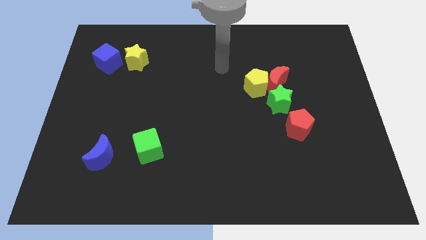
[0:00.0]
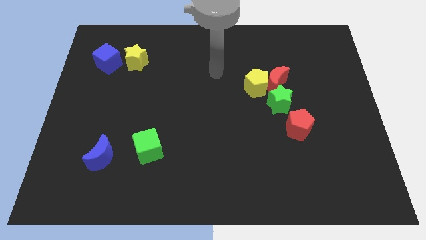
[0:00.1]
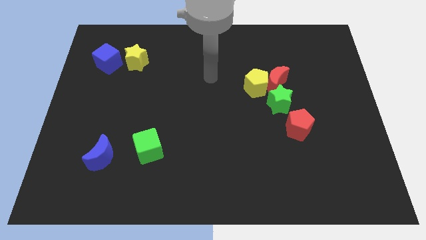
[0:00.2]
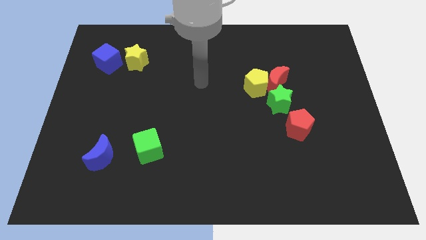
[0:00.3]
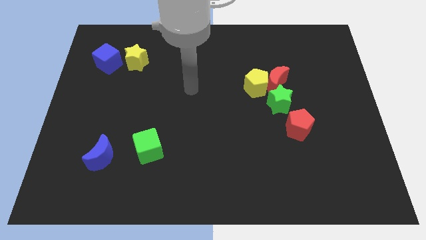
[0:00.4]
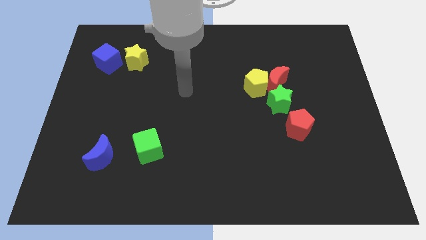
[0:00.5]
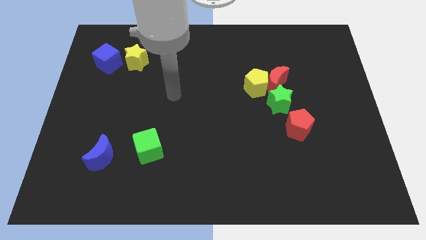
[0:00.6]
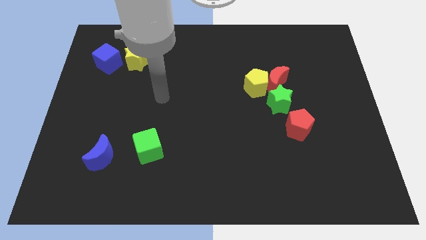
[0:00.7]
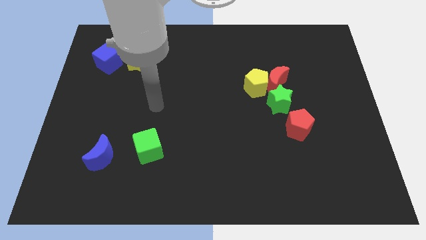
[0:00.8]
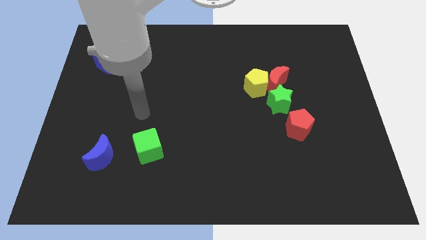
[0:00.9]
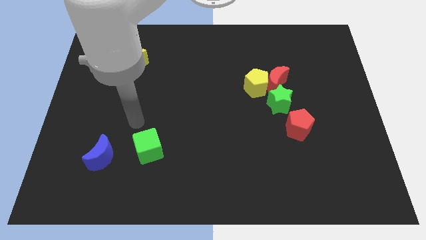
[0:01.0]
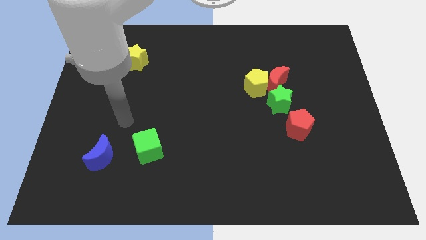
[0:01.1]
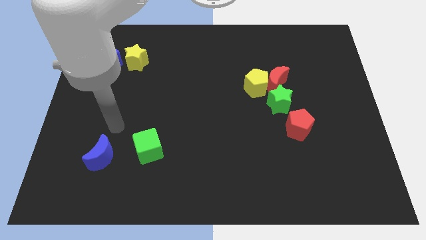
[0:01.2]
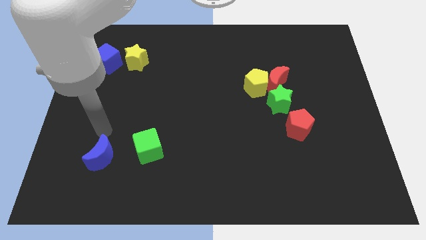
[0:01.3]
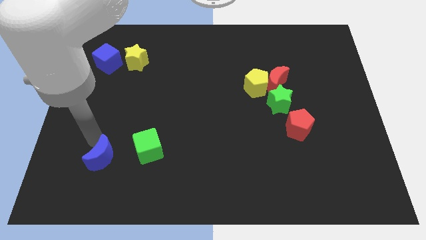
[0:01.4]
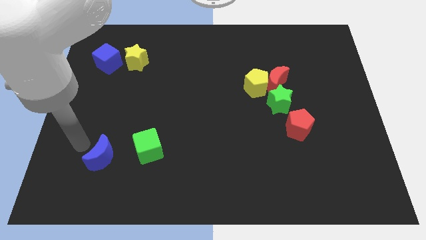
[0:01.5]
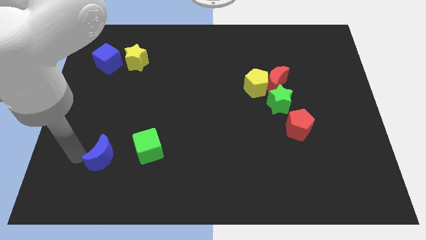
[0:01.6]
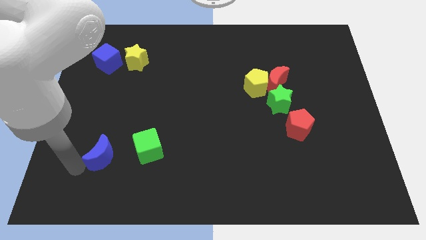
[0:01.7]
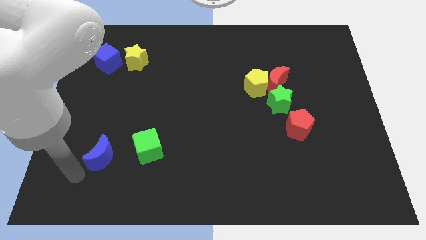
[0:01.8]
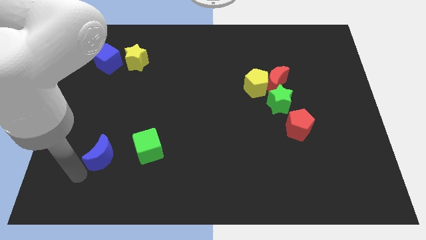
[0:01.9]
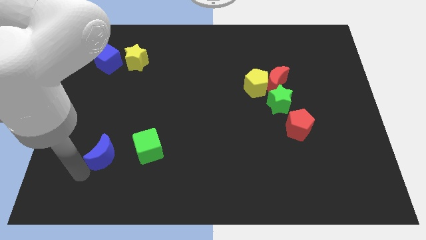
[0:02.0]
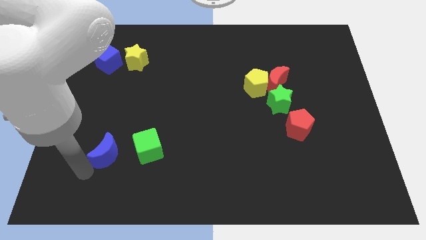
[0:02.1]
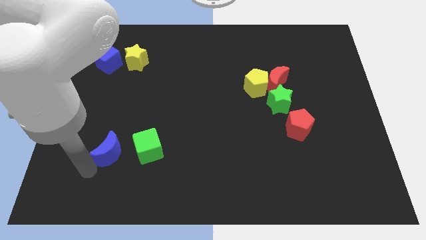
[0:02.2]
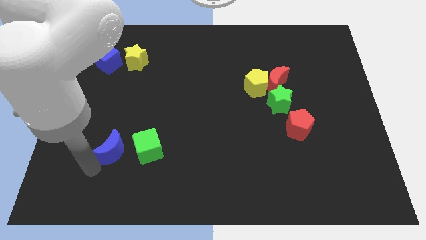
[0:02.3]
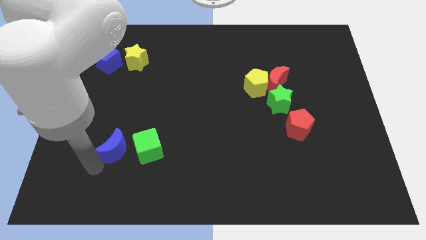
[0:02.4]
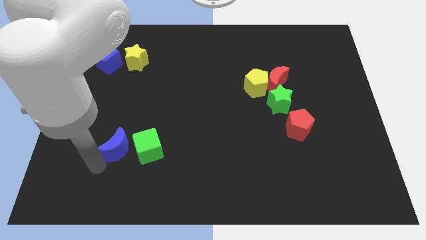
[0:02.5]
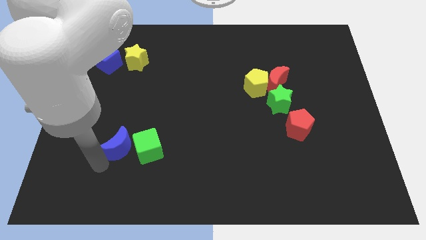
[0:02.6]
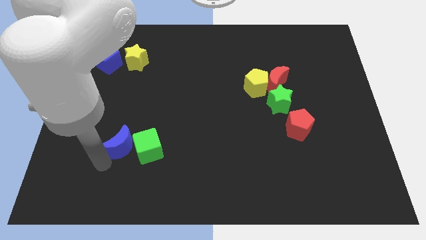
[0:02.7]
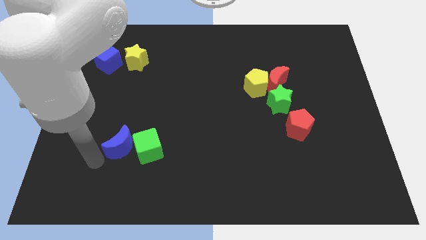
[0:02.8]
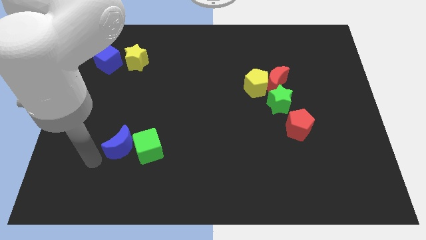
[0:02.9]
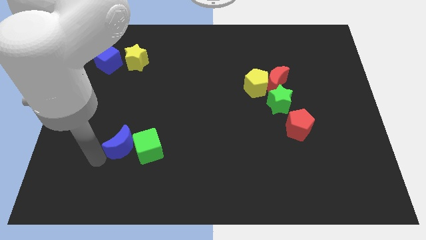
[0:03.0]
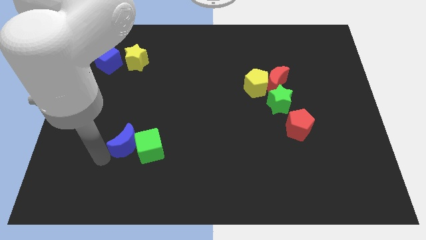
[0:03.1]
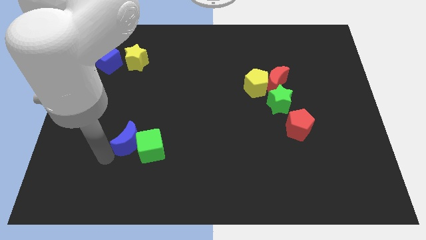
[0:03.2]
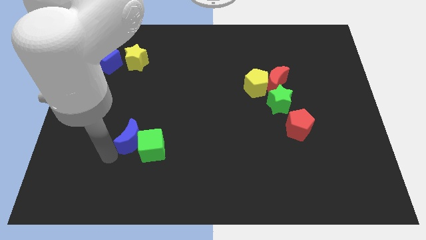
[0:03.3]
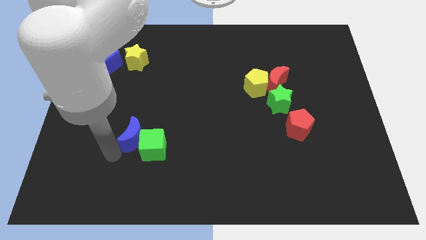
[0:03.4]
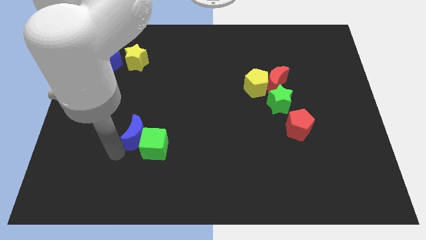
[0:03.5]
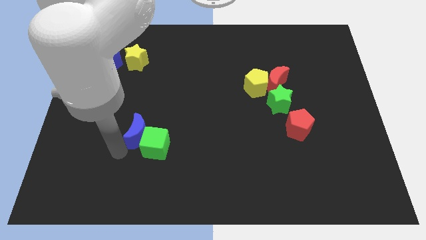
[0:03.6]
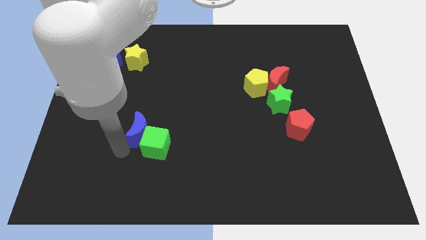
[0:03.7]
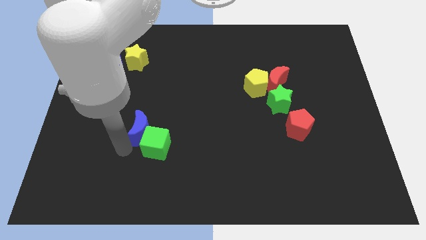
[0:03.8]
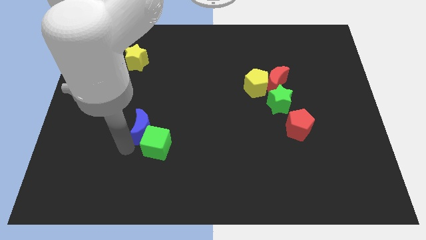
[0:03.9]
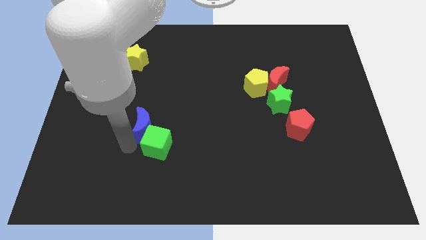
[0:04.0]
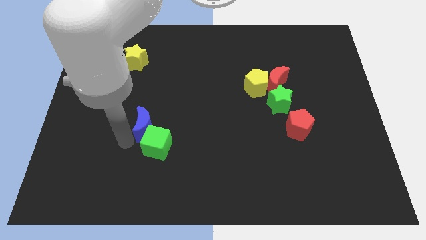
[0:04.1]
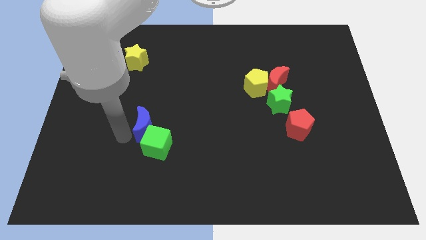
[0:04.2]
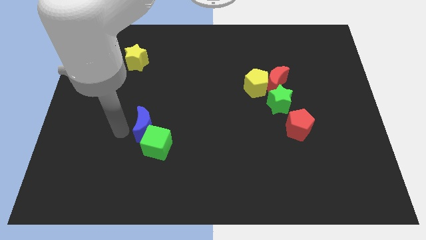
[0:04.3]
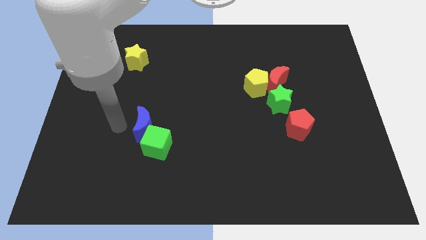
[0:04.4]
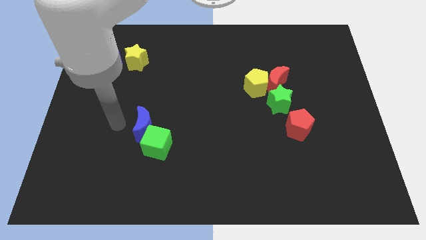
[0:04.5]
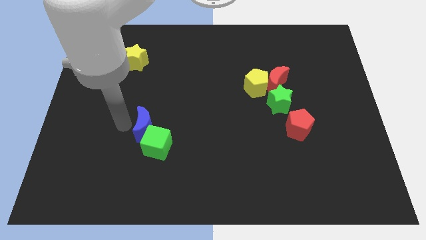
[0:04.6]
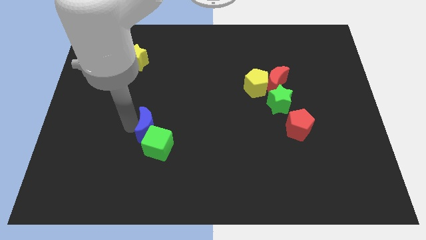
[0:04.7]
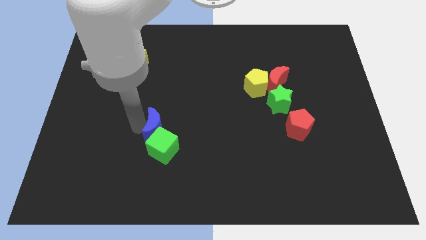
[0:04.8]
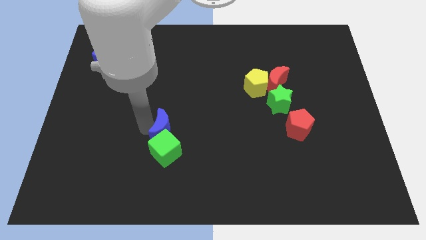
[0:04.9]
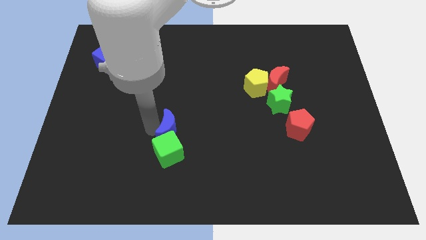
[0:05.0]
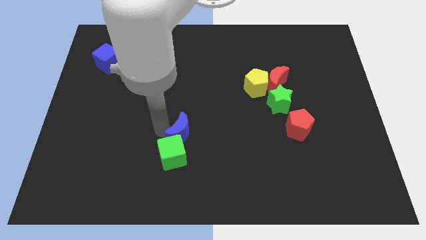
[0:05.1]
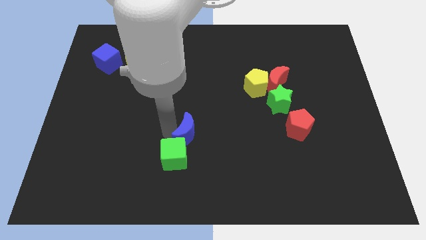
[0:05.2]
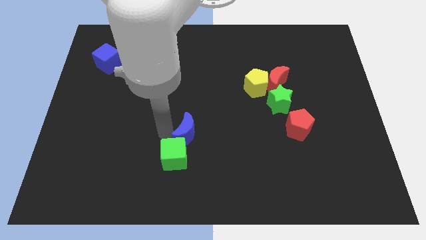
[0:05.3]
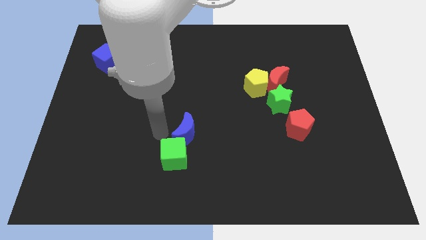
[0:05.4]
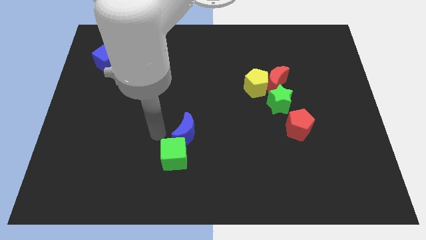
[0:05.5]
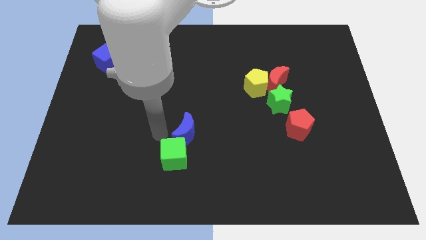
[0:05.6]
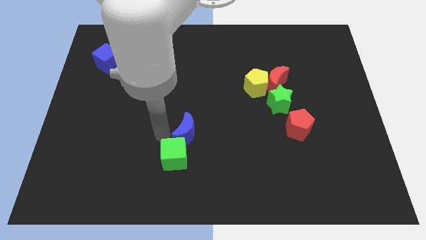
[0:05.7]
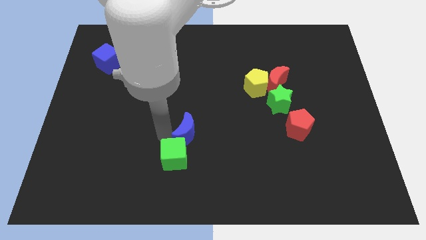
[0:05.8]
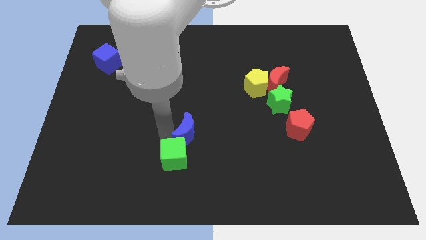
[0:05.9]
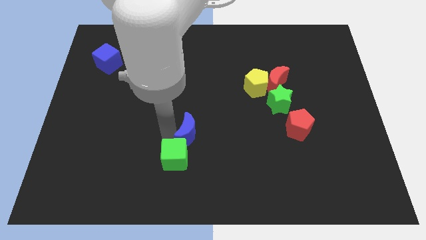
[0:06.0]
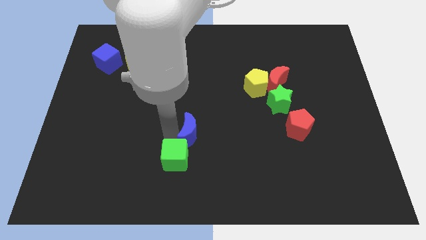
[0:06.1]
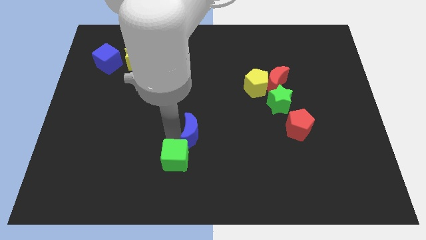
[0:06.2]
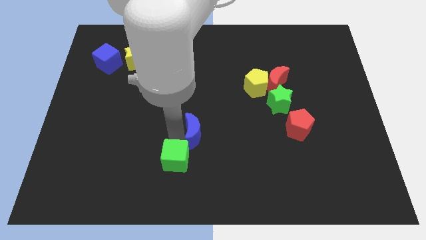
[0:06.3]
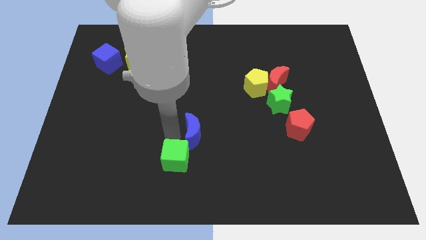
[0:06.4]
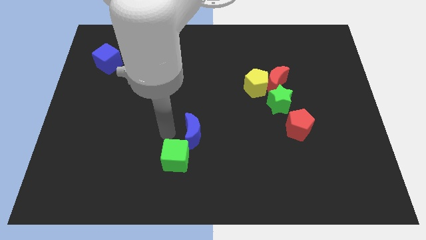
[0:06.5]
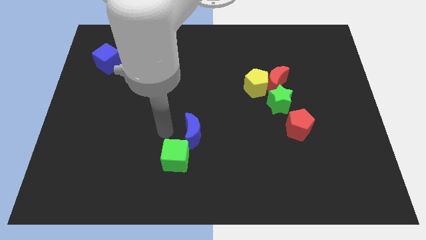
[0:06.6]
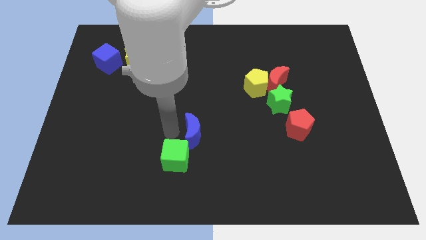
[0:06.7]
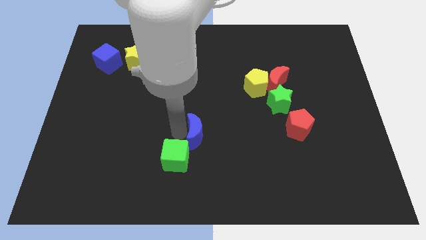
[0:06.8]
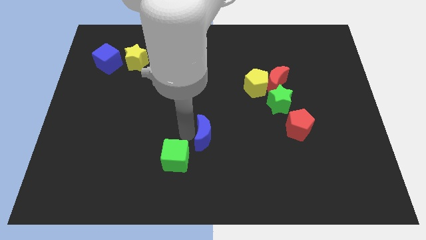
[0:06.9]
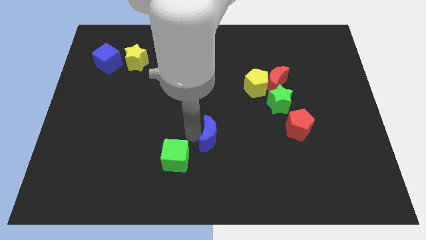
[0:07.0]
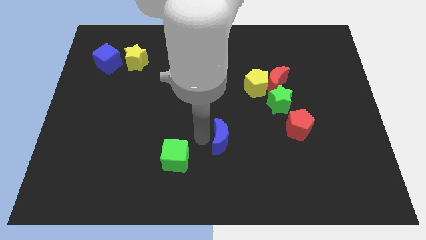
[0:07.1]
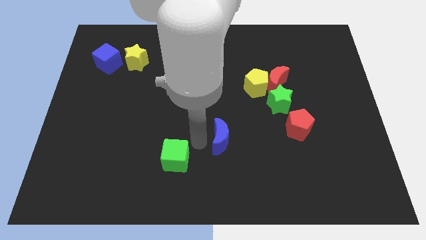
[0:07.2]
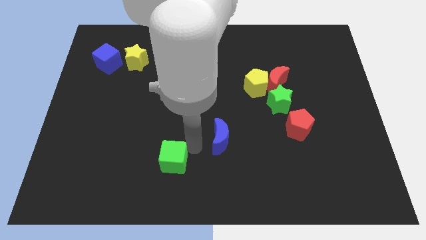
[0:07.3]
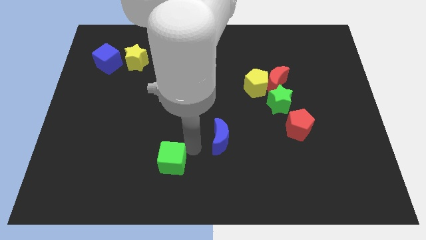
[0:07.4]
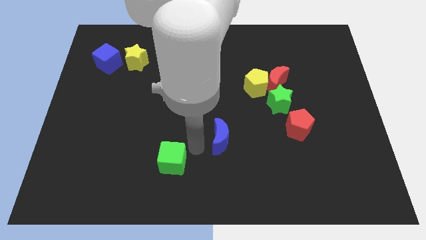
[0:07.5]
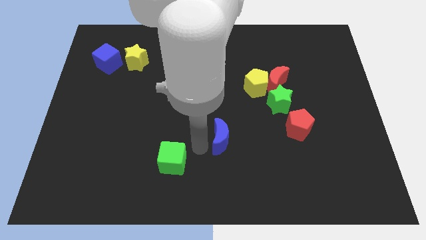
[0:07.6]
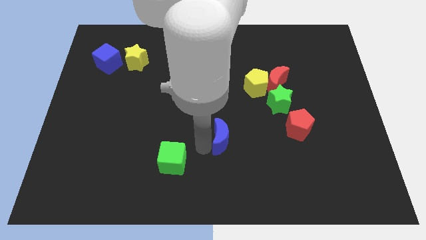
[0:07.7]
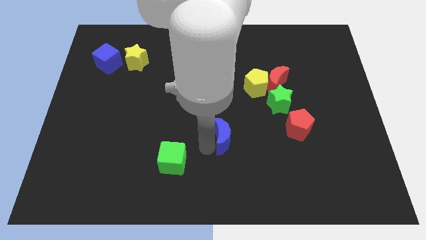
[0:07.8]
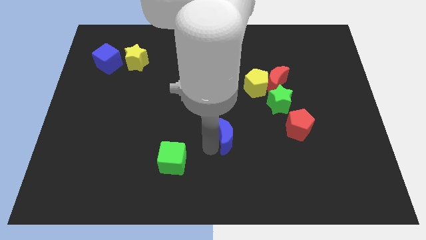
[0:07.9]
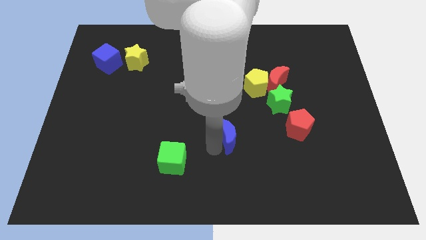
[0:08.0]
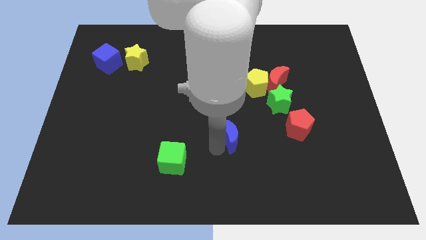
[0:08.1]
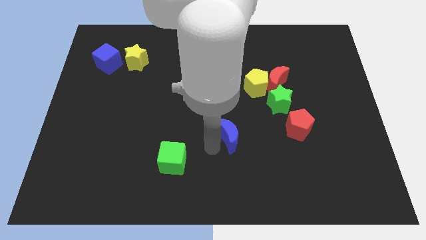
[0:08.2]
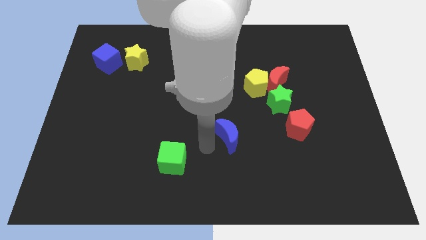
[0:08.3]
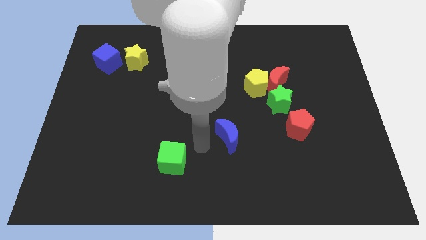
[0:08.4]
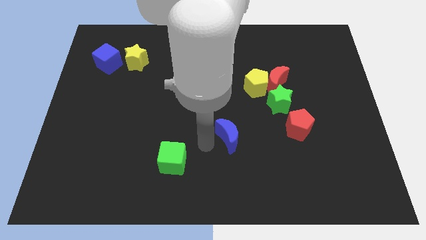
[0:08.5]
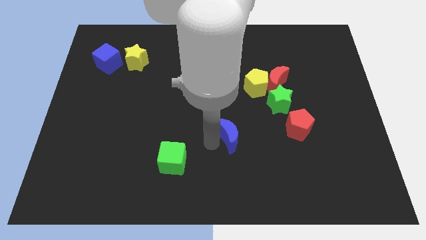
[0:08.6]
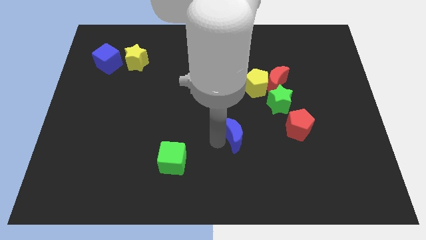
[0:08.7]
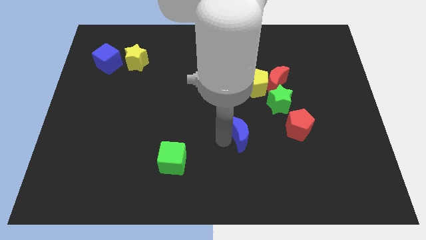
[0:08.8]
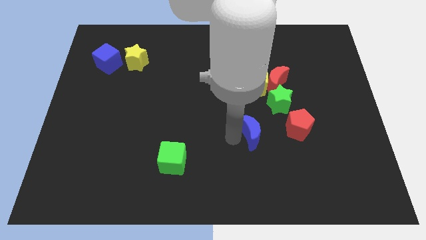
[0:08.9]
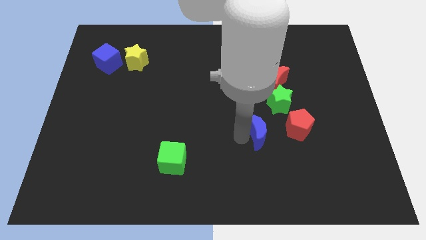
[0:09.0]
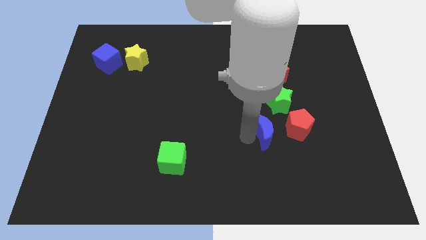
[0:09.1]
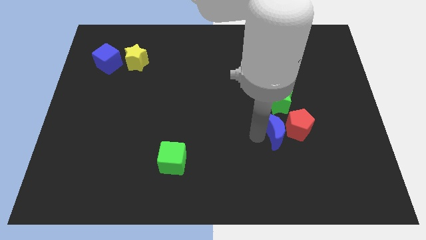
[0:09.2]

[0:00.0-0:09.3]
move the blue moon close to the red pentagon
